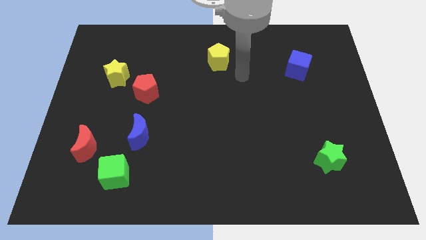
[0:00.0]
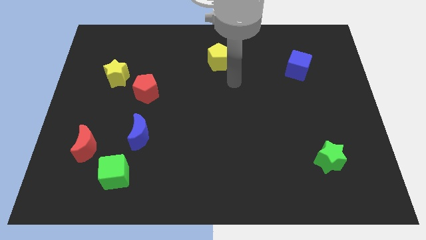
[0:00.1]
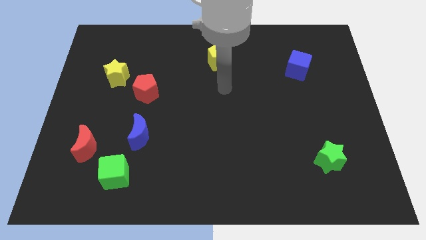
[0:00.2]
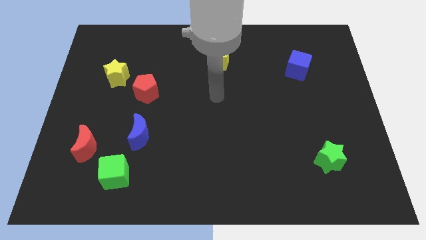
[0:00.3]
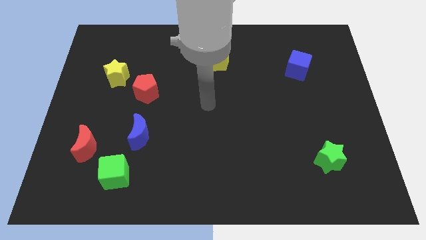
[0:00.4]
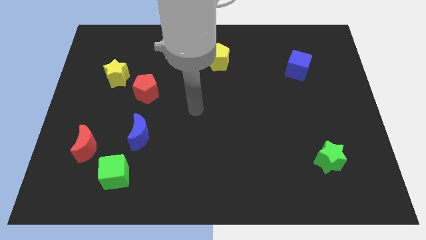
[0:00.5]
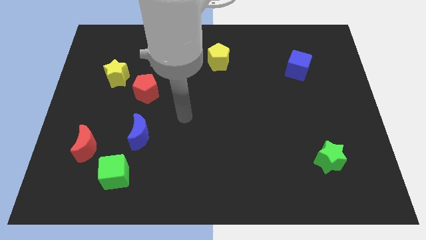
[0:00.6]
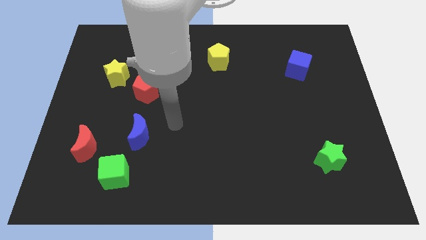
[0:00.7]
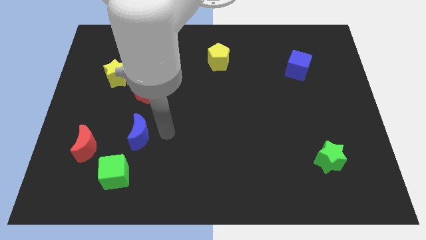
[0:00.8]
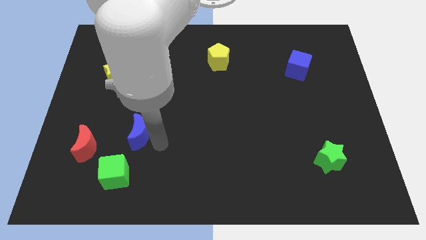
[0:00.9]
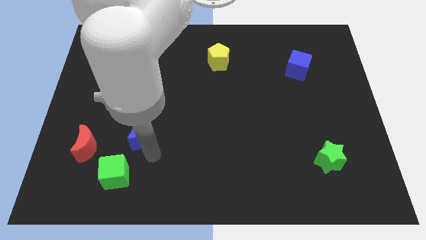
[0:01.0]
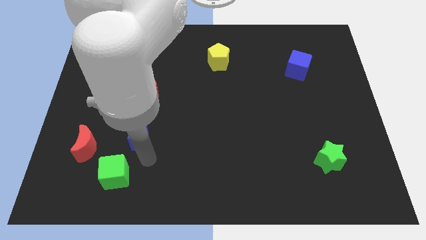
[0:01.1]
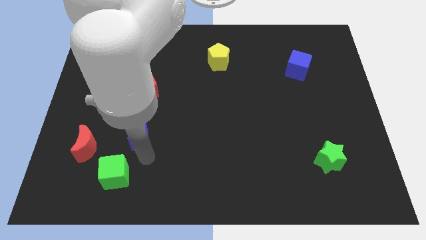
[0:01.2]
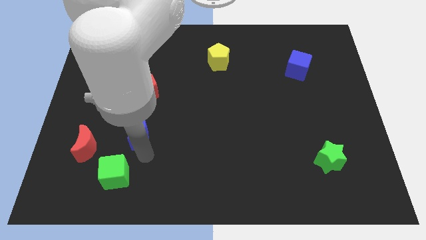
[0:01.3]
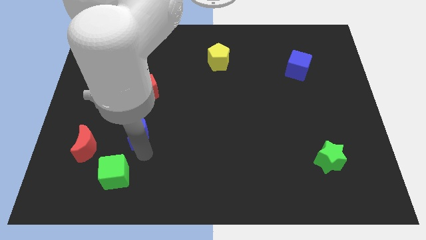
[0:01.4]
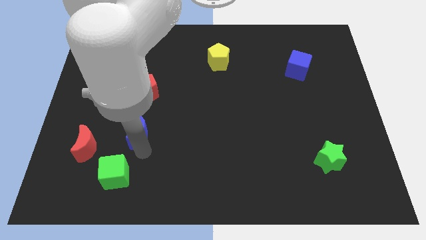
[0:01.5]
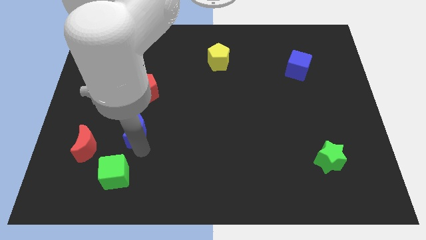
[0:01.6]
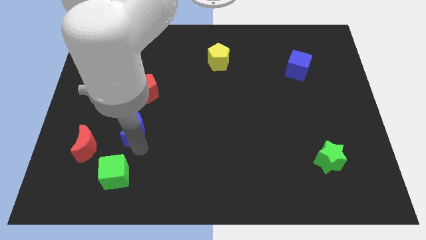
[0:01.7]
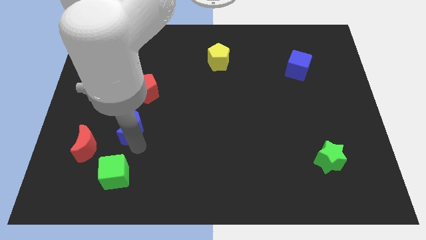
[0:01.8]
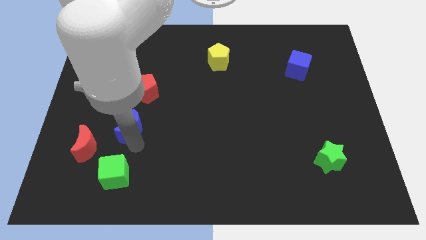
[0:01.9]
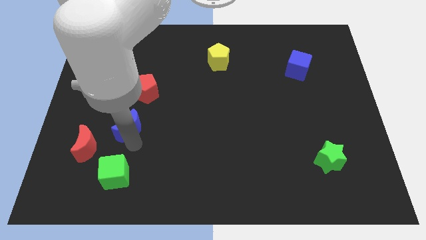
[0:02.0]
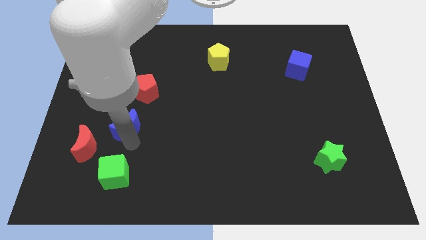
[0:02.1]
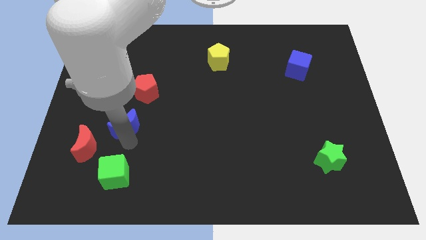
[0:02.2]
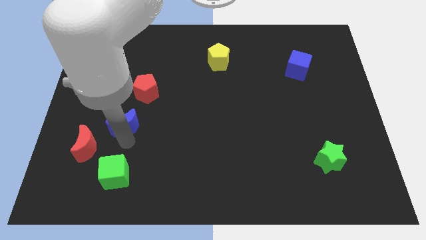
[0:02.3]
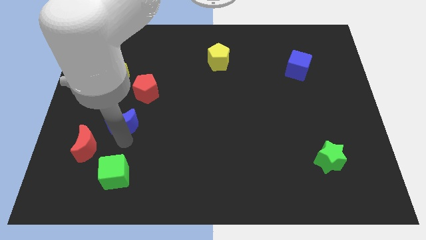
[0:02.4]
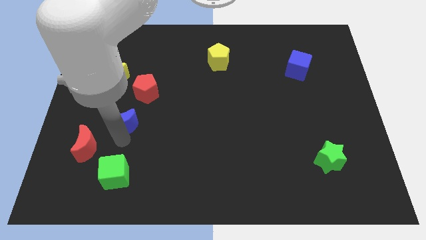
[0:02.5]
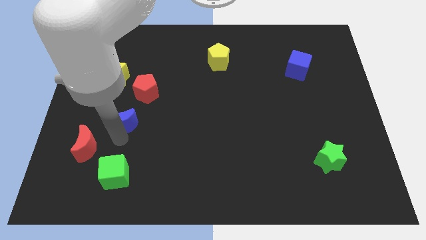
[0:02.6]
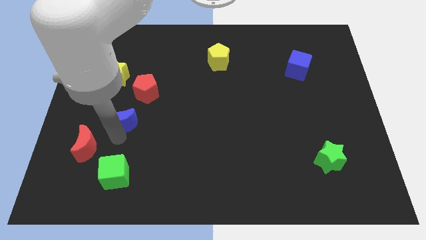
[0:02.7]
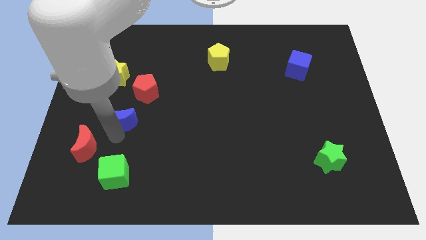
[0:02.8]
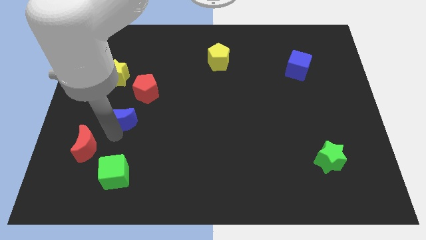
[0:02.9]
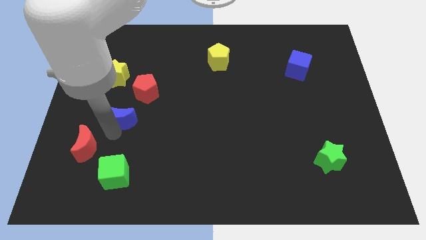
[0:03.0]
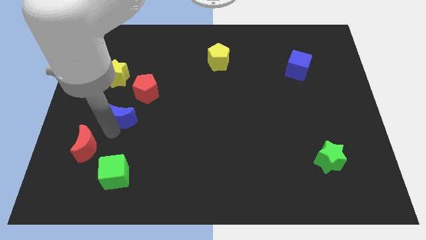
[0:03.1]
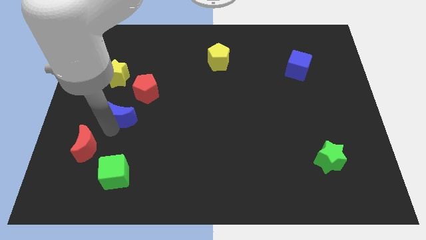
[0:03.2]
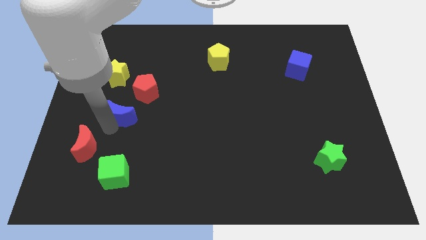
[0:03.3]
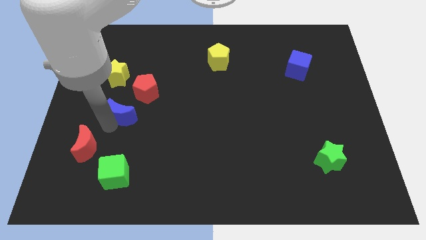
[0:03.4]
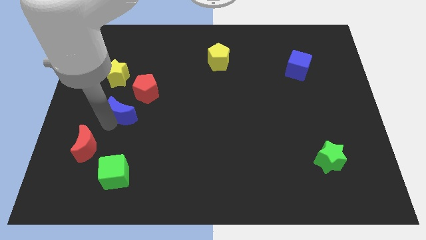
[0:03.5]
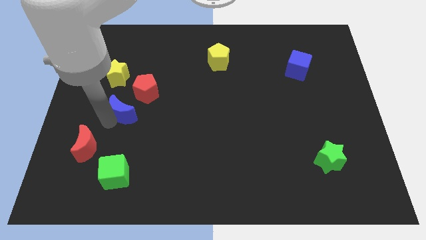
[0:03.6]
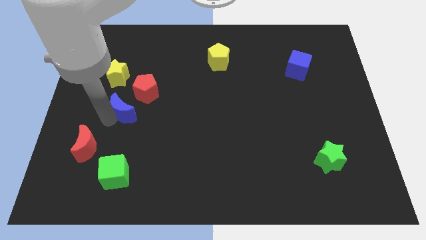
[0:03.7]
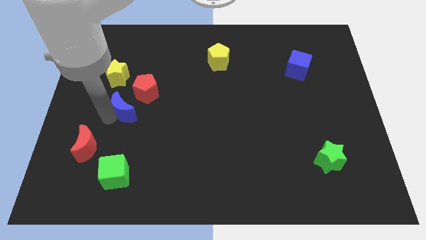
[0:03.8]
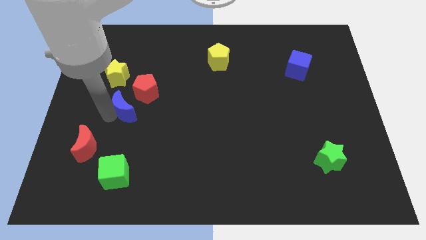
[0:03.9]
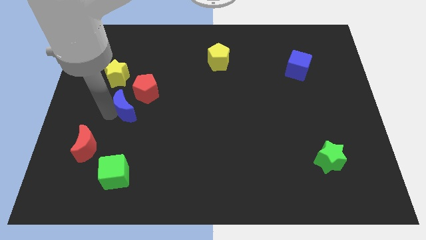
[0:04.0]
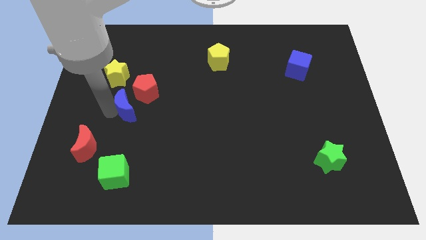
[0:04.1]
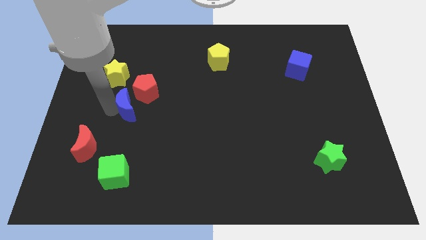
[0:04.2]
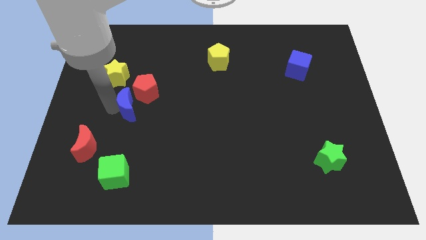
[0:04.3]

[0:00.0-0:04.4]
push the blue moon up slightly

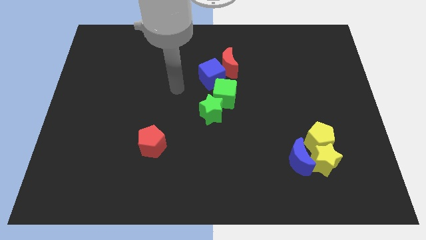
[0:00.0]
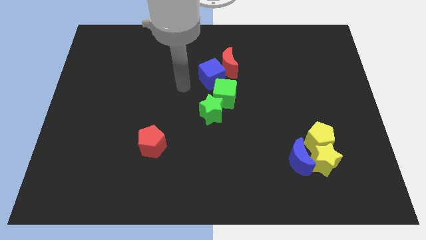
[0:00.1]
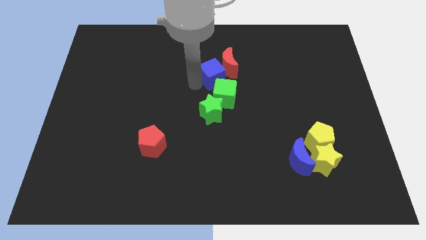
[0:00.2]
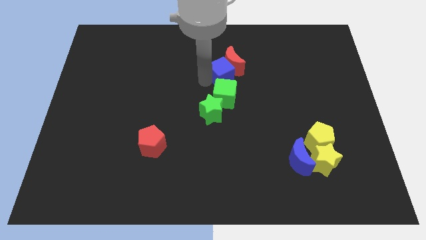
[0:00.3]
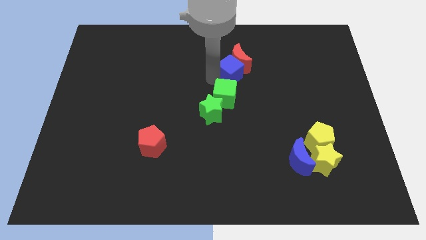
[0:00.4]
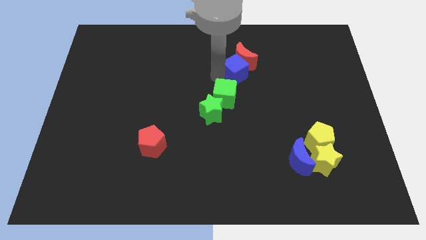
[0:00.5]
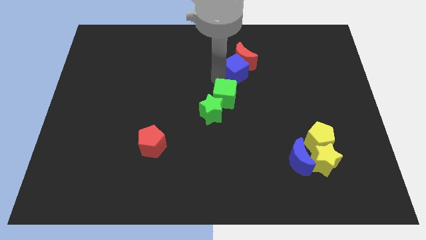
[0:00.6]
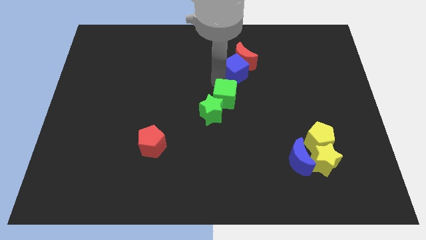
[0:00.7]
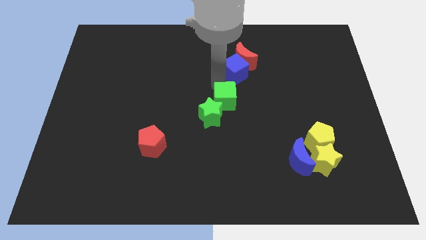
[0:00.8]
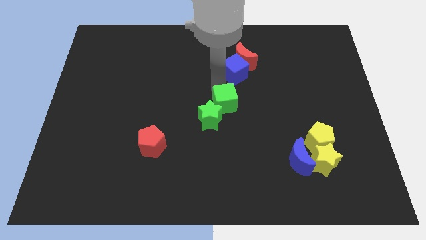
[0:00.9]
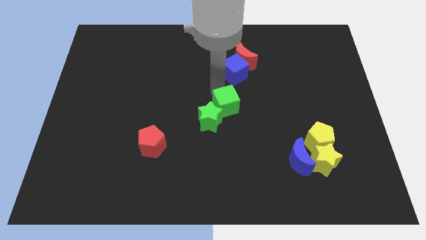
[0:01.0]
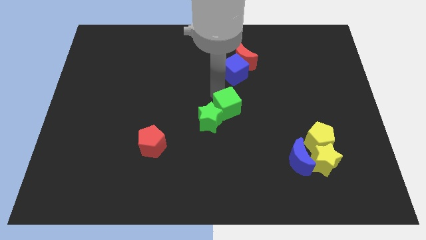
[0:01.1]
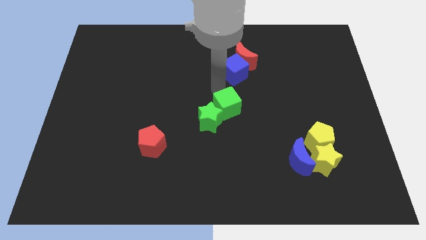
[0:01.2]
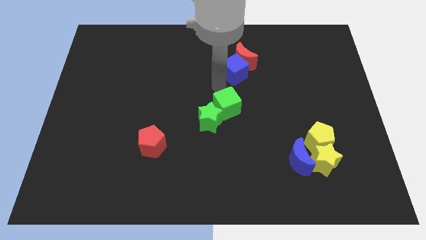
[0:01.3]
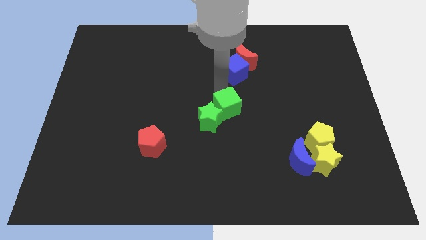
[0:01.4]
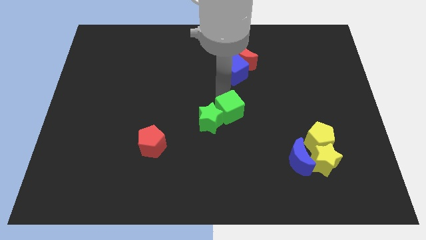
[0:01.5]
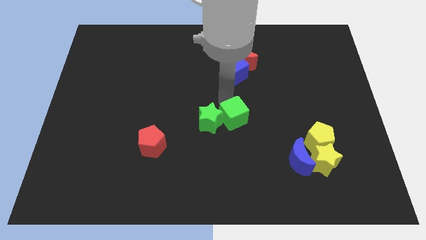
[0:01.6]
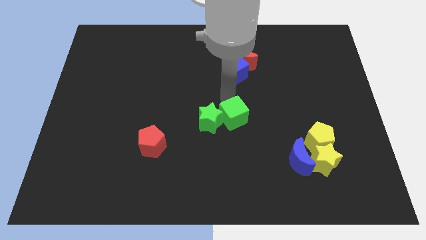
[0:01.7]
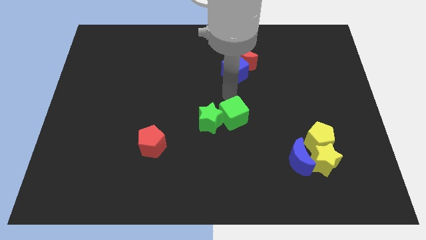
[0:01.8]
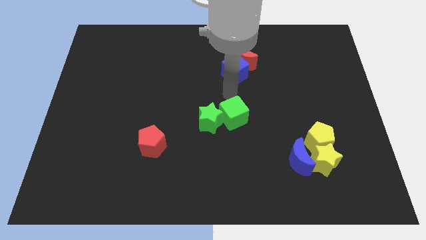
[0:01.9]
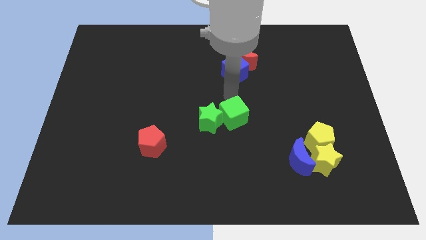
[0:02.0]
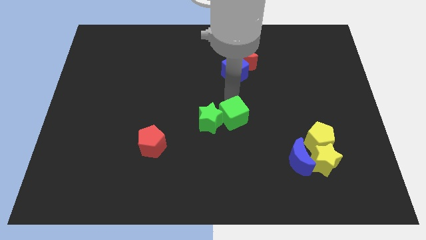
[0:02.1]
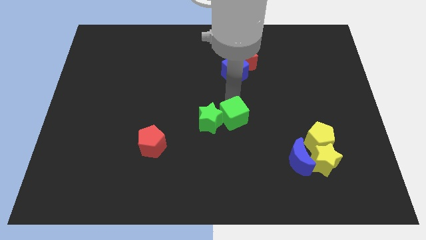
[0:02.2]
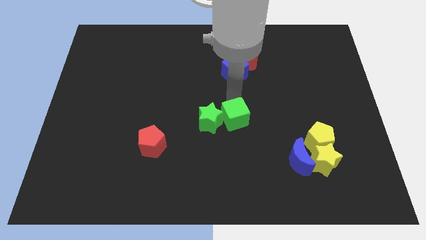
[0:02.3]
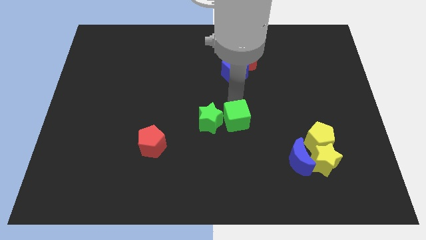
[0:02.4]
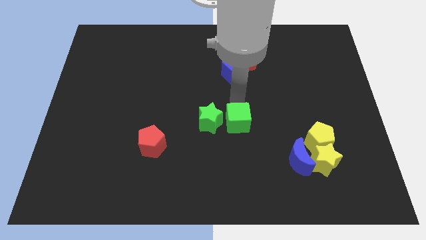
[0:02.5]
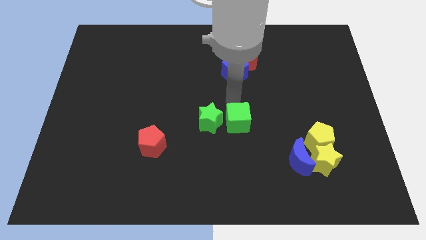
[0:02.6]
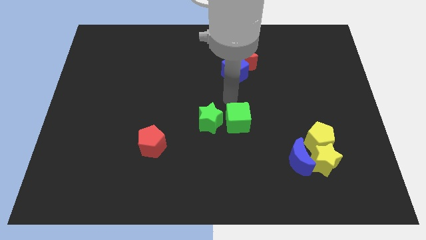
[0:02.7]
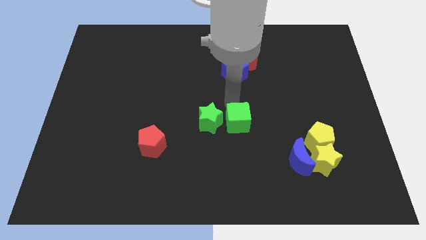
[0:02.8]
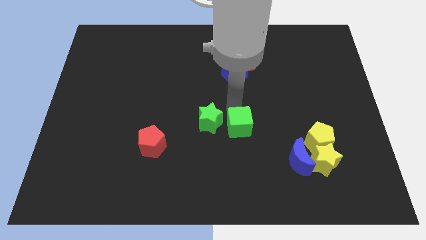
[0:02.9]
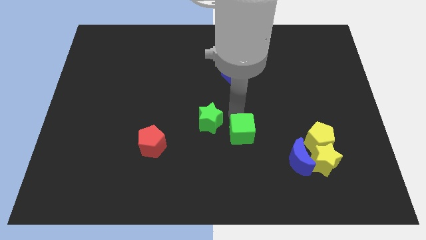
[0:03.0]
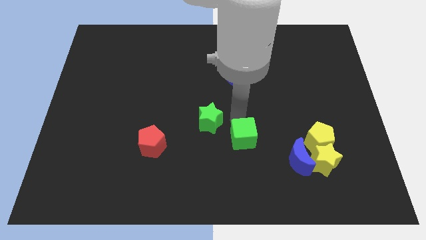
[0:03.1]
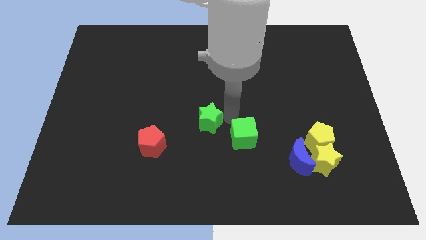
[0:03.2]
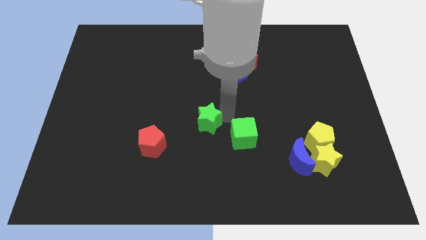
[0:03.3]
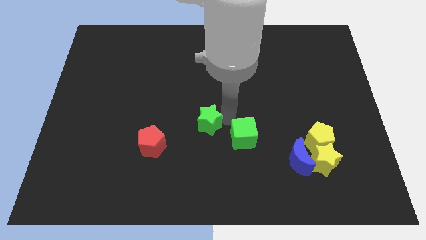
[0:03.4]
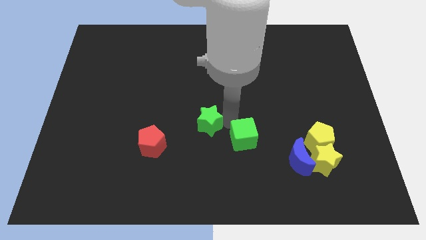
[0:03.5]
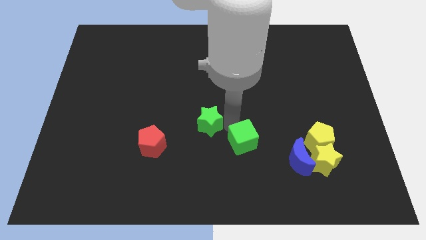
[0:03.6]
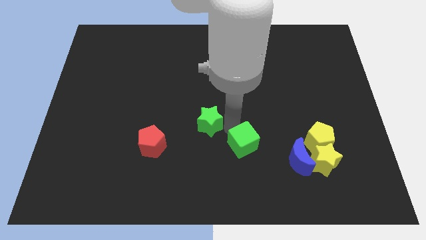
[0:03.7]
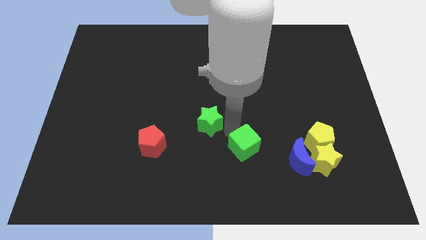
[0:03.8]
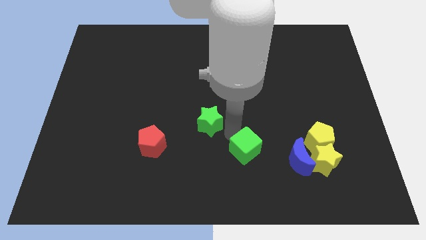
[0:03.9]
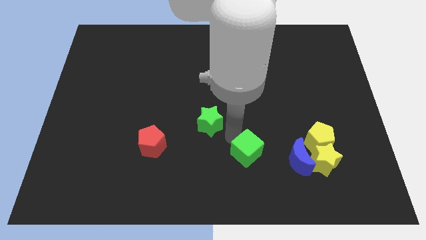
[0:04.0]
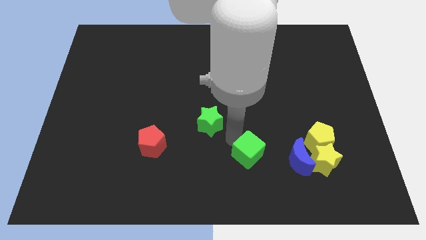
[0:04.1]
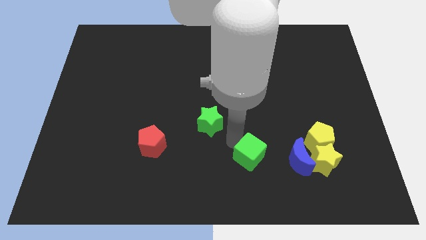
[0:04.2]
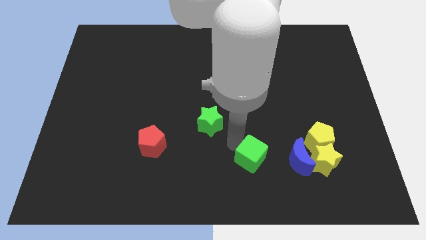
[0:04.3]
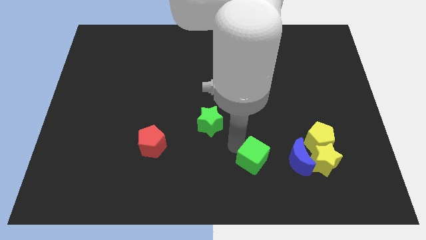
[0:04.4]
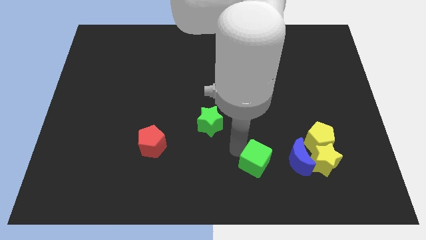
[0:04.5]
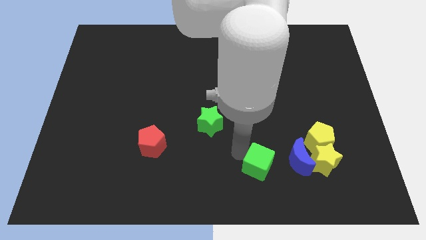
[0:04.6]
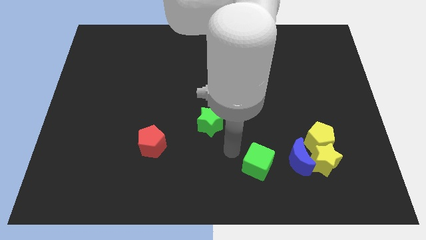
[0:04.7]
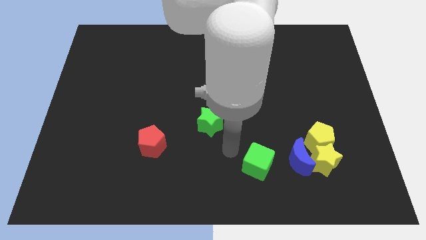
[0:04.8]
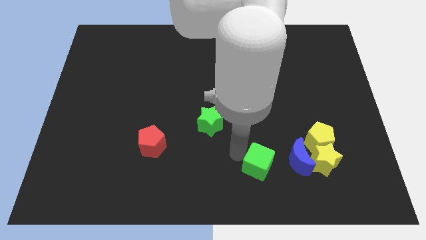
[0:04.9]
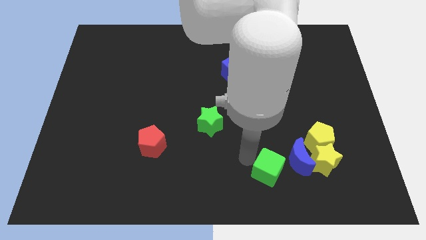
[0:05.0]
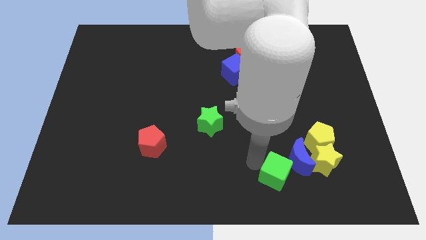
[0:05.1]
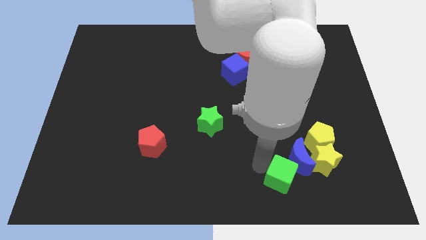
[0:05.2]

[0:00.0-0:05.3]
slide the green cube downwards and right
